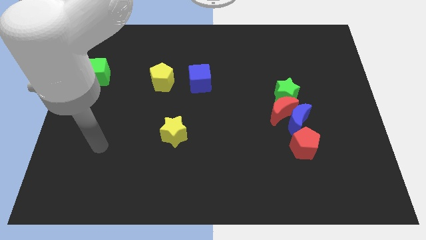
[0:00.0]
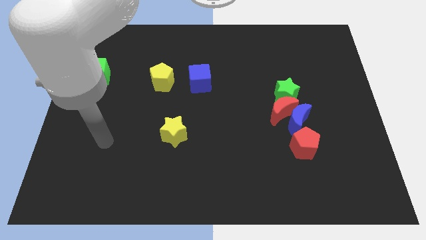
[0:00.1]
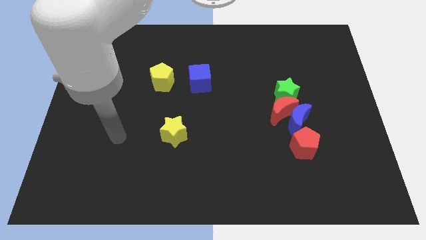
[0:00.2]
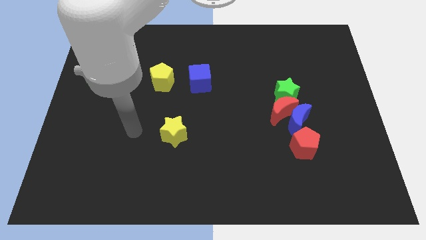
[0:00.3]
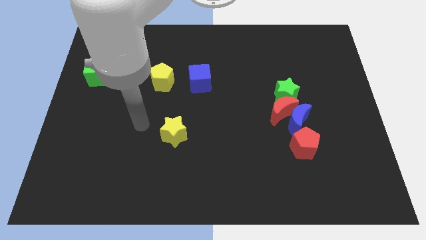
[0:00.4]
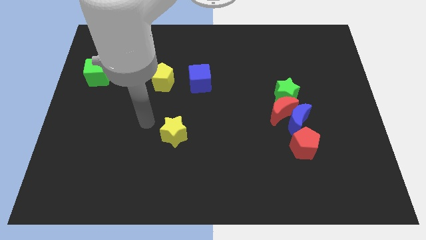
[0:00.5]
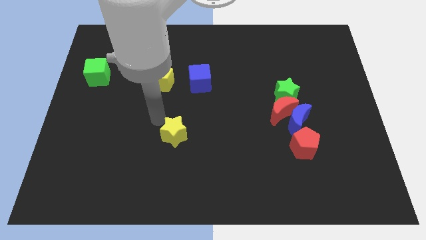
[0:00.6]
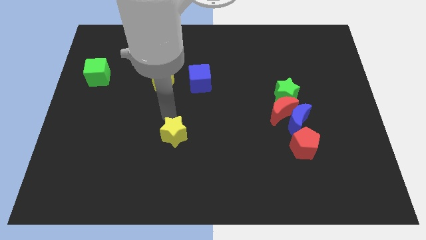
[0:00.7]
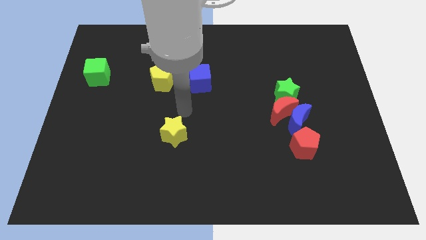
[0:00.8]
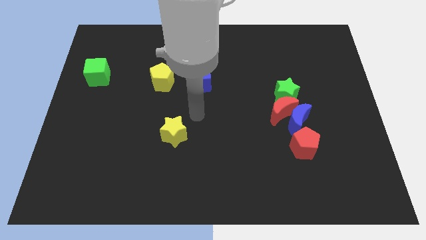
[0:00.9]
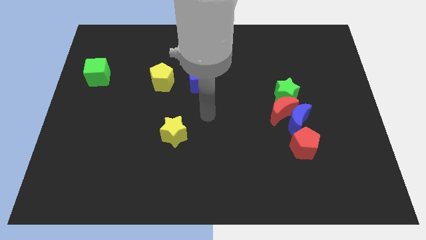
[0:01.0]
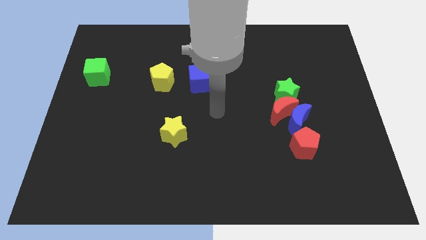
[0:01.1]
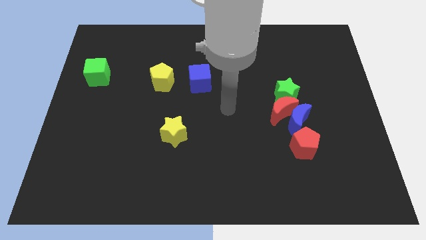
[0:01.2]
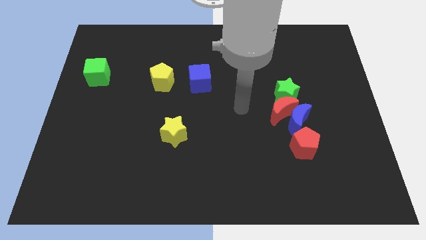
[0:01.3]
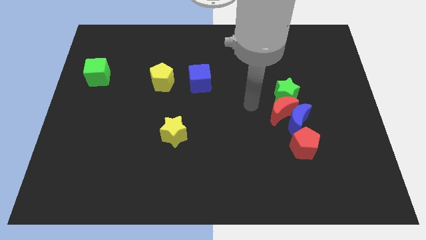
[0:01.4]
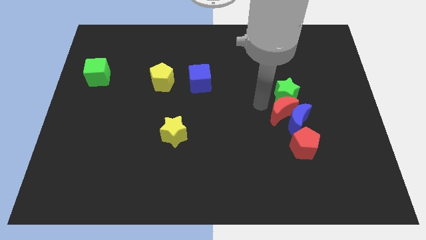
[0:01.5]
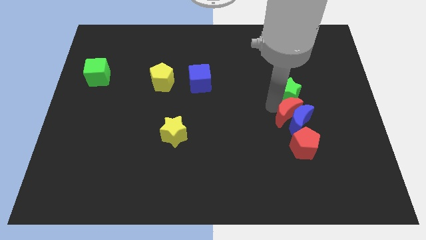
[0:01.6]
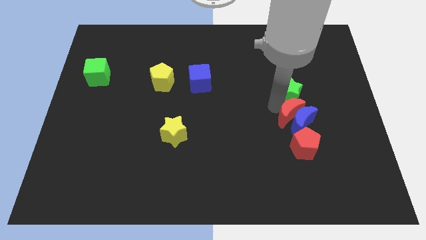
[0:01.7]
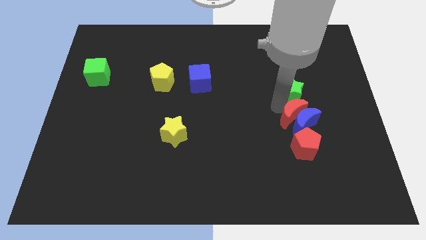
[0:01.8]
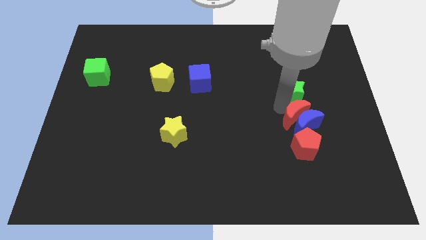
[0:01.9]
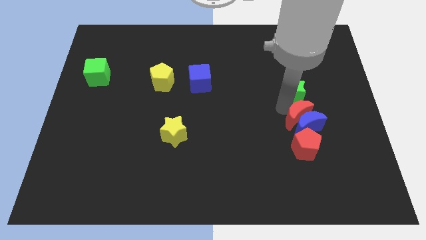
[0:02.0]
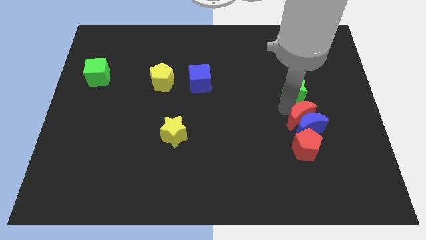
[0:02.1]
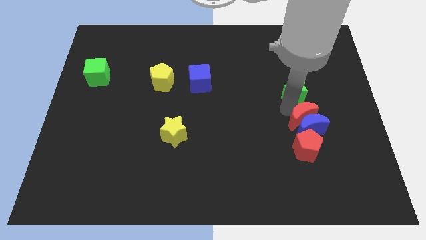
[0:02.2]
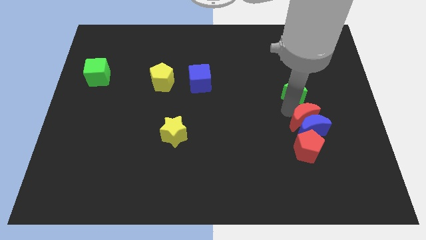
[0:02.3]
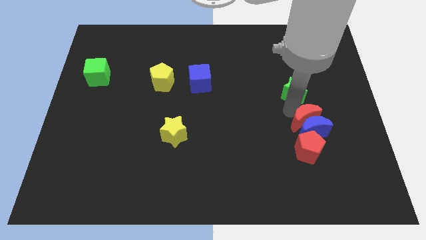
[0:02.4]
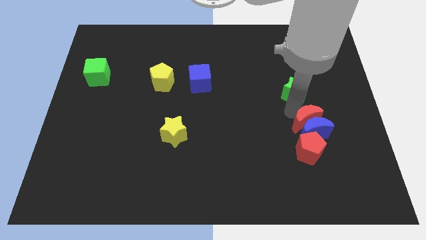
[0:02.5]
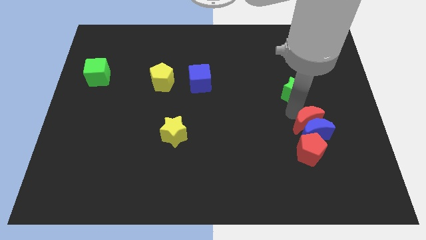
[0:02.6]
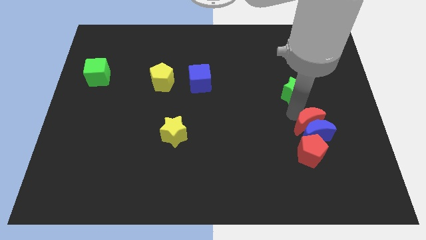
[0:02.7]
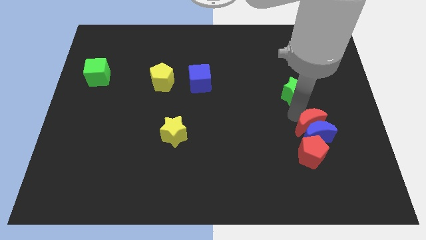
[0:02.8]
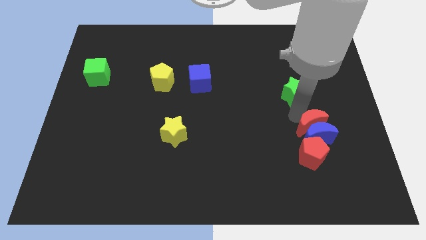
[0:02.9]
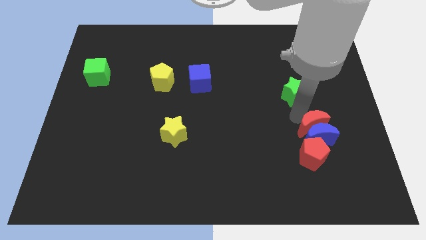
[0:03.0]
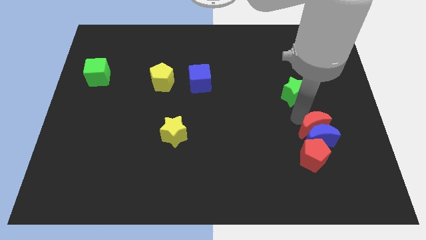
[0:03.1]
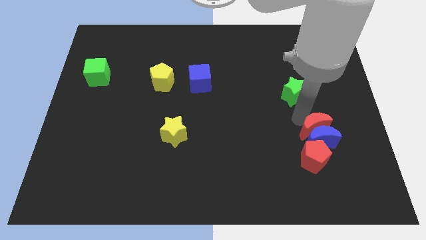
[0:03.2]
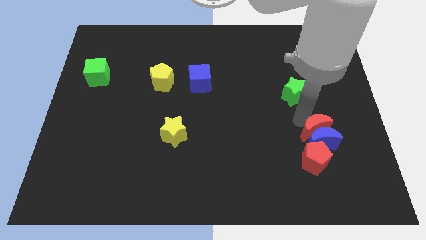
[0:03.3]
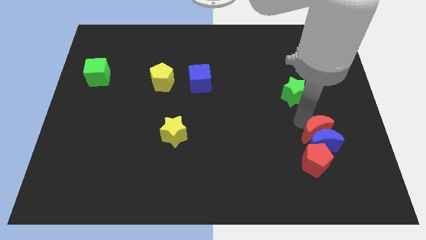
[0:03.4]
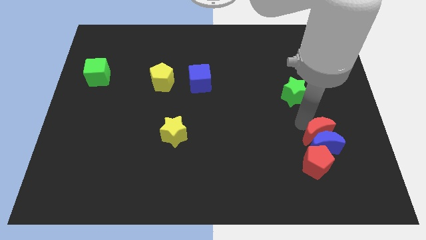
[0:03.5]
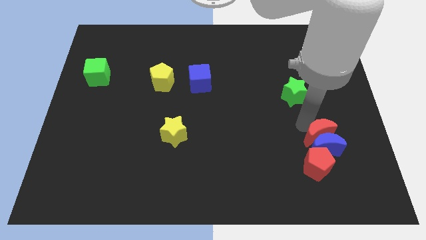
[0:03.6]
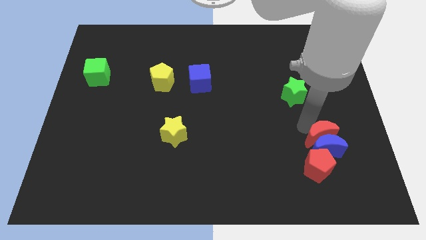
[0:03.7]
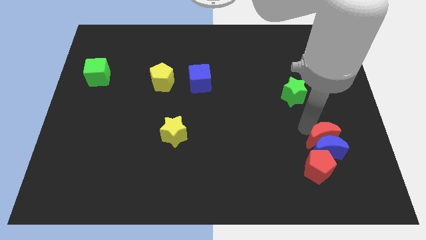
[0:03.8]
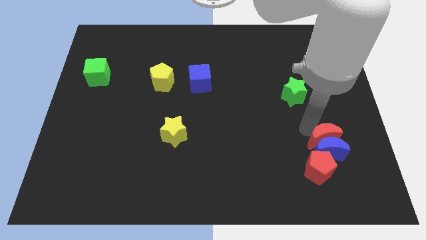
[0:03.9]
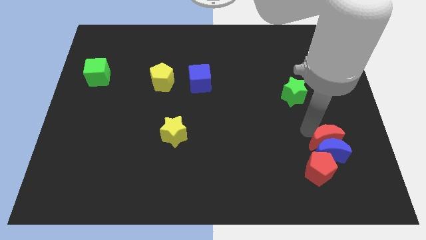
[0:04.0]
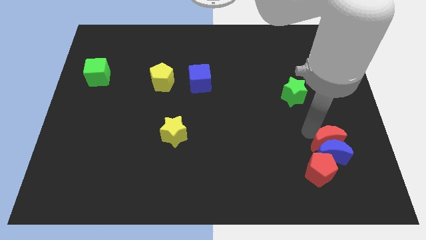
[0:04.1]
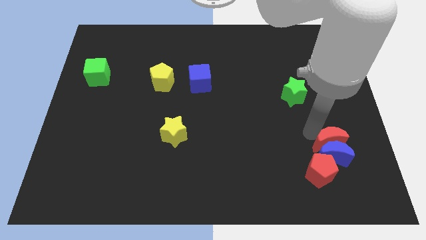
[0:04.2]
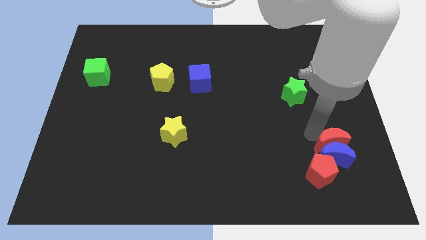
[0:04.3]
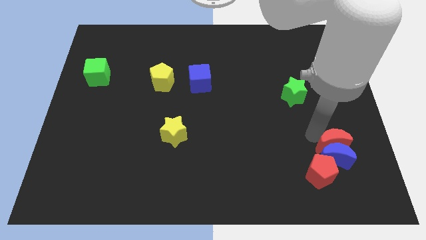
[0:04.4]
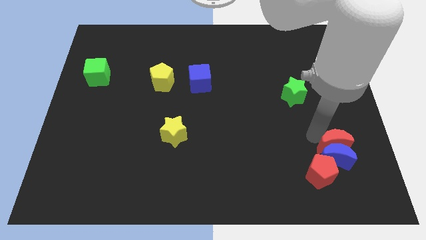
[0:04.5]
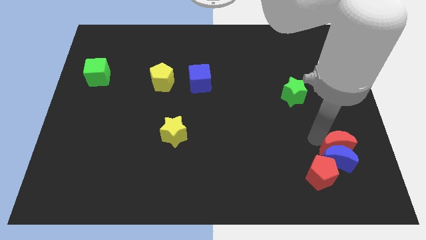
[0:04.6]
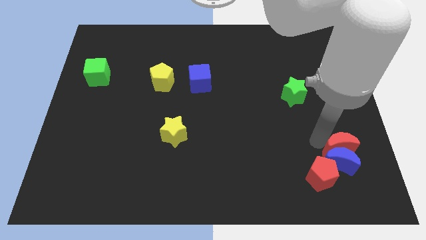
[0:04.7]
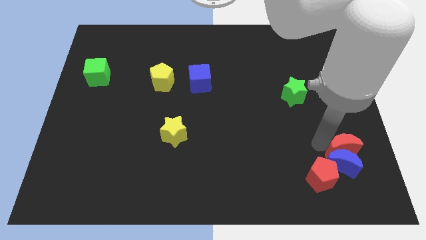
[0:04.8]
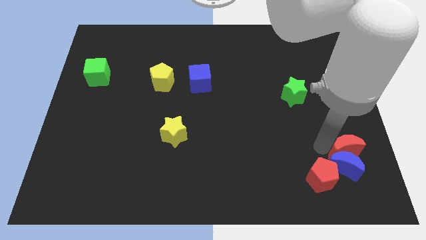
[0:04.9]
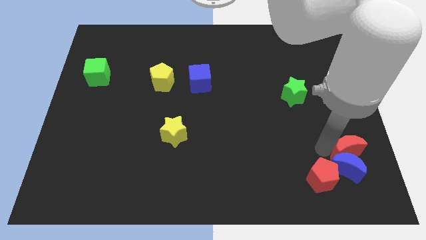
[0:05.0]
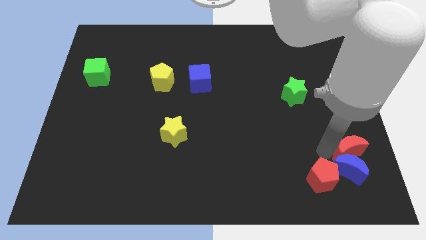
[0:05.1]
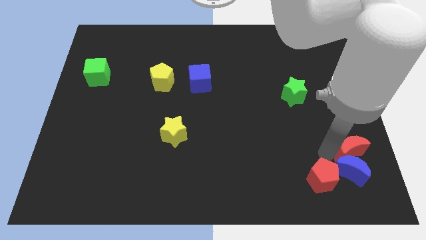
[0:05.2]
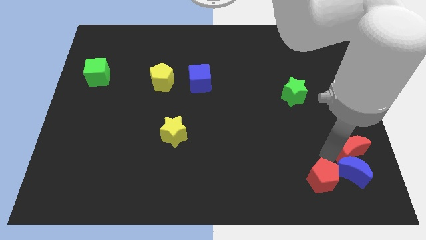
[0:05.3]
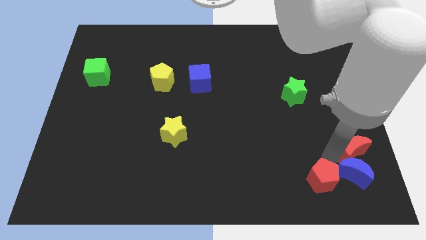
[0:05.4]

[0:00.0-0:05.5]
separate the blue moon from the red moon, red pentagon, and green star

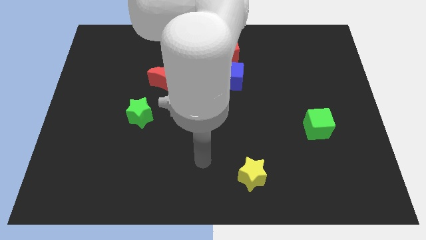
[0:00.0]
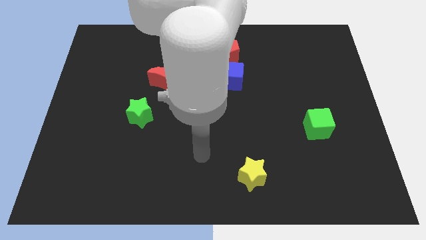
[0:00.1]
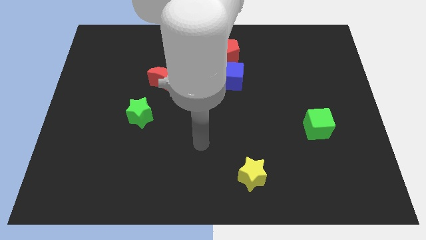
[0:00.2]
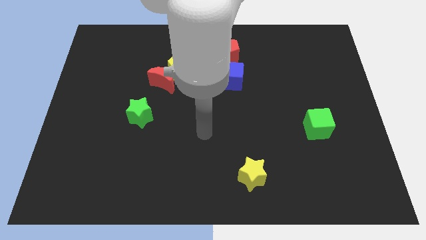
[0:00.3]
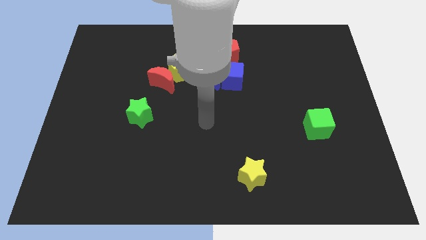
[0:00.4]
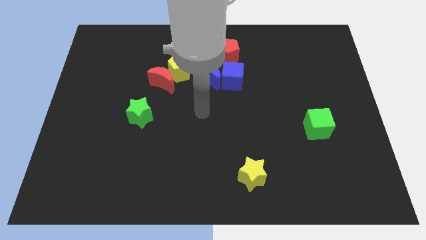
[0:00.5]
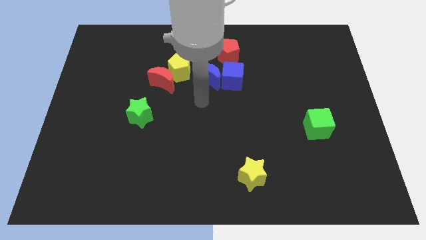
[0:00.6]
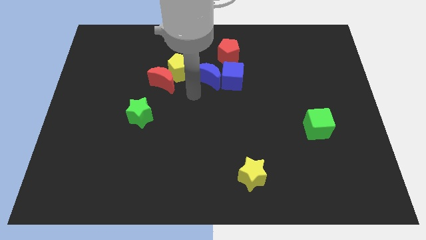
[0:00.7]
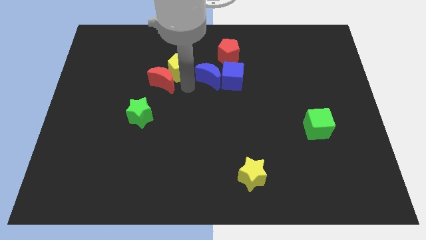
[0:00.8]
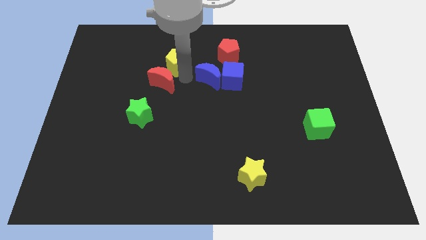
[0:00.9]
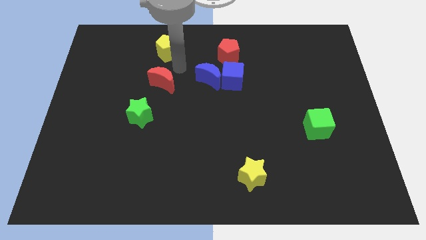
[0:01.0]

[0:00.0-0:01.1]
pull the red moon apart from the yellow pentagon

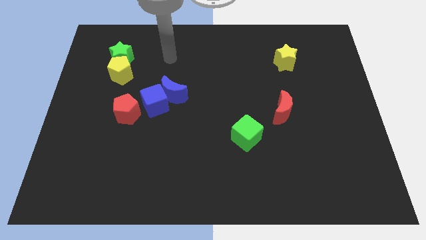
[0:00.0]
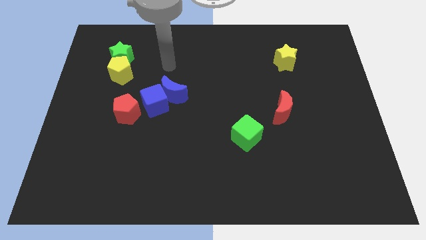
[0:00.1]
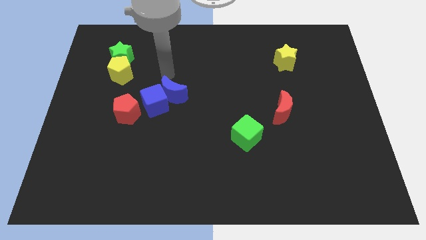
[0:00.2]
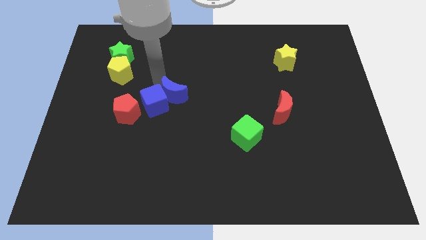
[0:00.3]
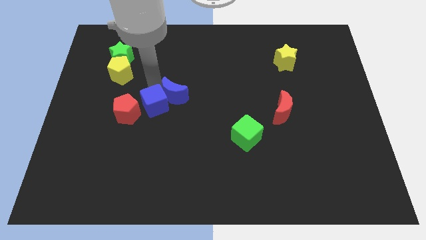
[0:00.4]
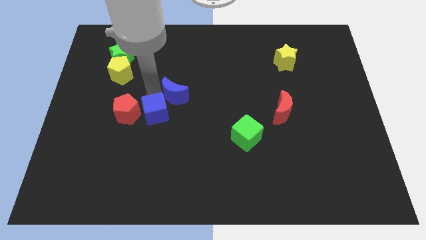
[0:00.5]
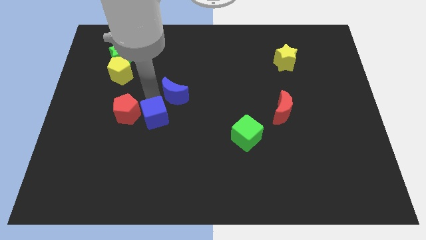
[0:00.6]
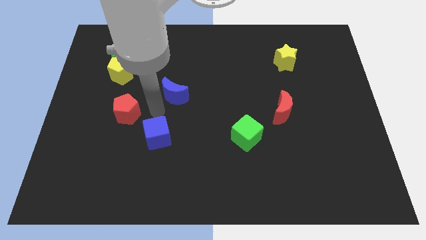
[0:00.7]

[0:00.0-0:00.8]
separate the blue moon from the blue cube

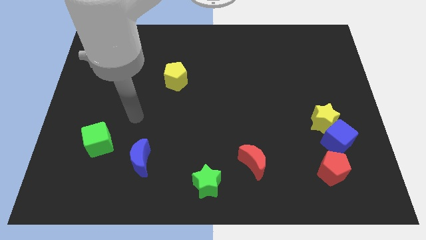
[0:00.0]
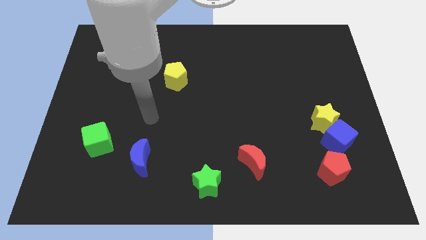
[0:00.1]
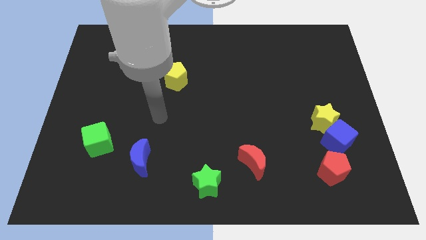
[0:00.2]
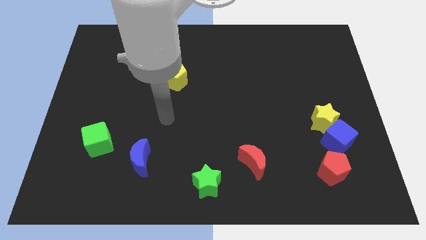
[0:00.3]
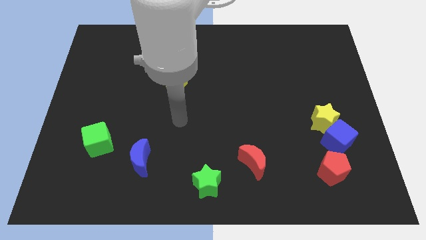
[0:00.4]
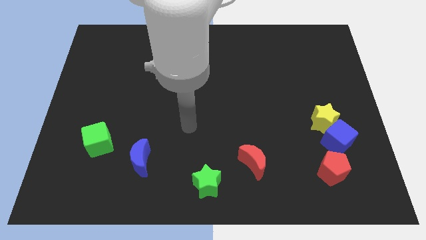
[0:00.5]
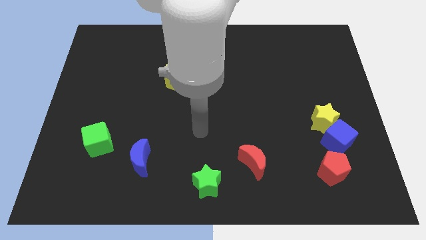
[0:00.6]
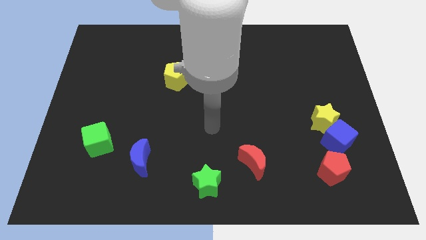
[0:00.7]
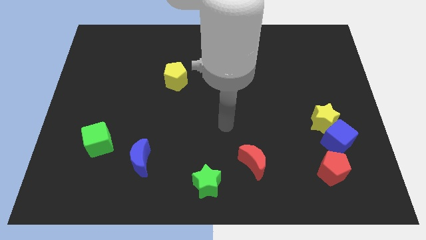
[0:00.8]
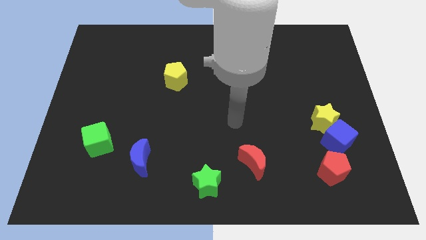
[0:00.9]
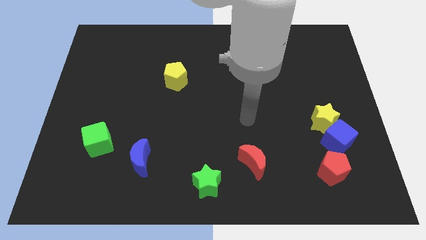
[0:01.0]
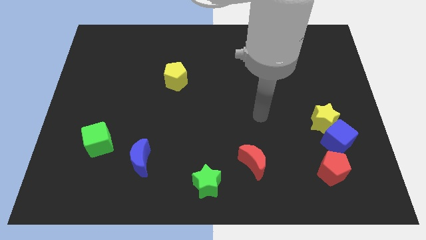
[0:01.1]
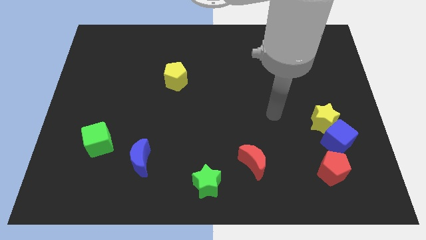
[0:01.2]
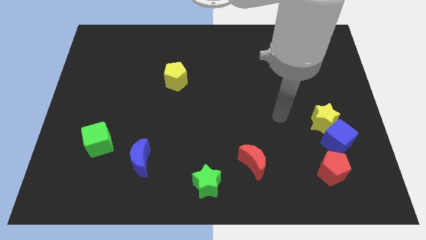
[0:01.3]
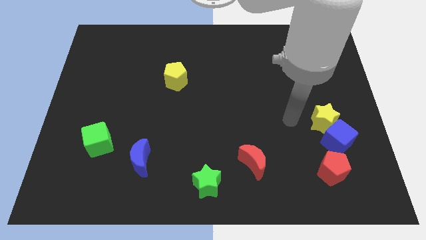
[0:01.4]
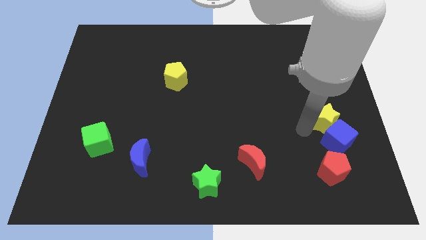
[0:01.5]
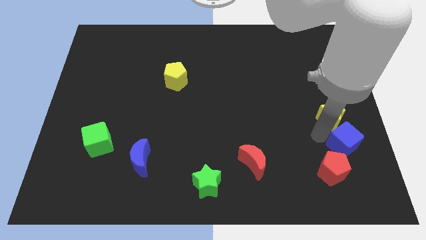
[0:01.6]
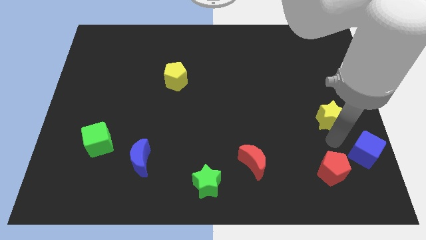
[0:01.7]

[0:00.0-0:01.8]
separate the yellow star from the blue cube

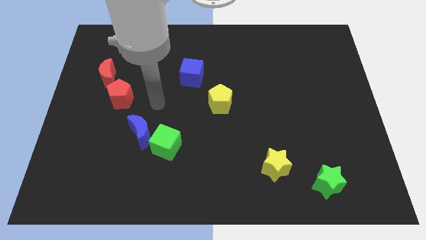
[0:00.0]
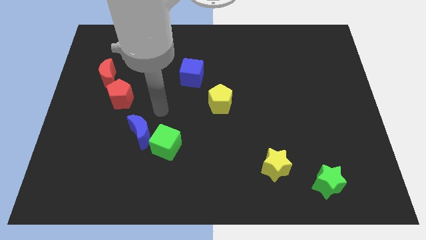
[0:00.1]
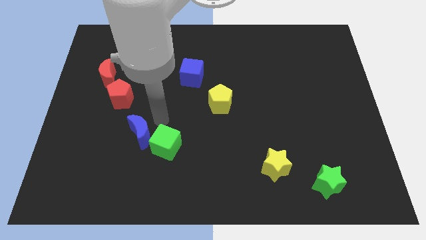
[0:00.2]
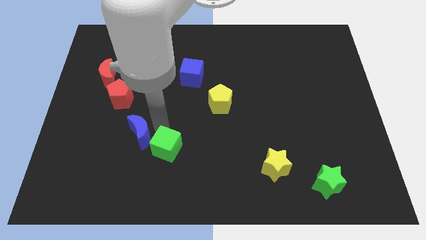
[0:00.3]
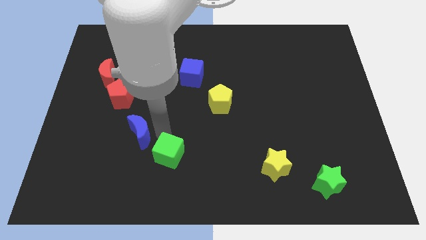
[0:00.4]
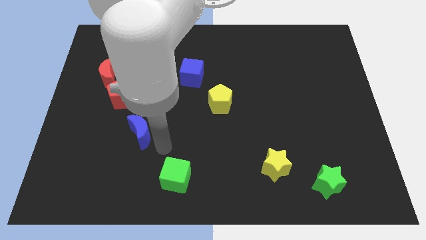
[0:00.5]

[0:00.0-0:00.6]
pull the blue moon apart from the green cube
